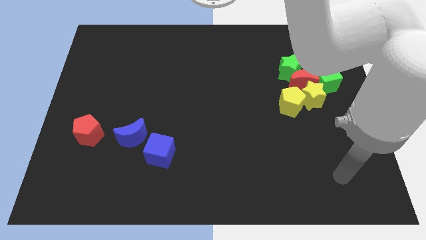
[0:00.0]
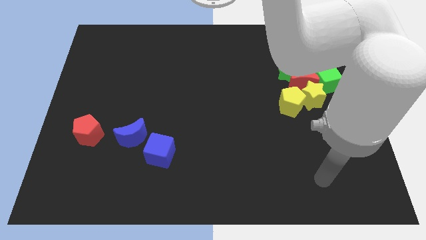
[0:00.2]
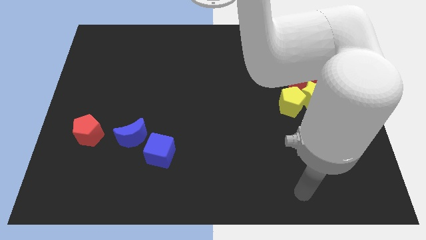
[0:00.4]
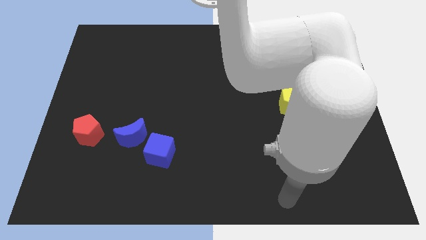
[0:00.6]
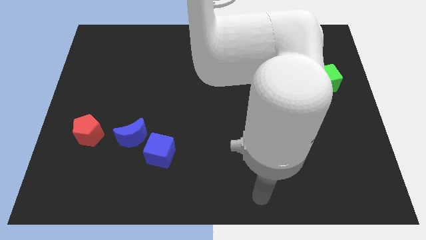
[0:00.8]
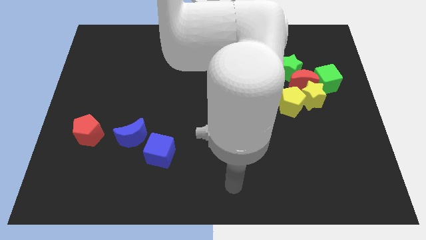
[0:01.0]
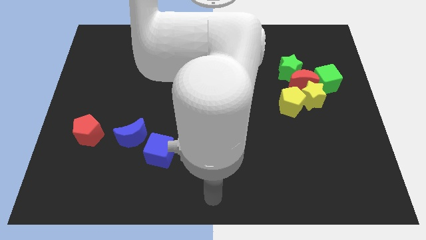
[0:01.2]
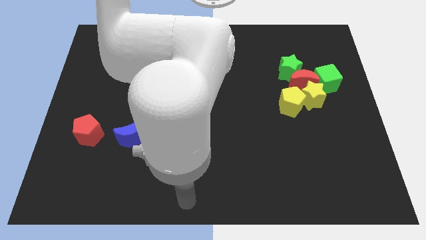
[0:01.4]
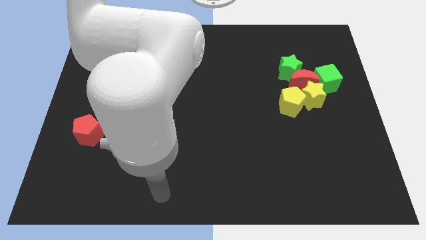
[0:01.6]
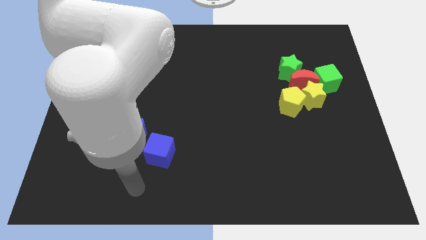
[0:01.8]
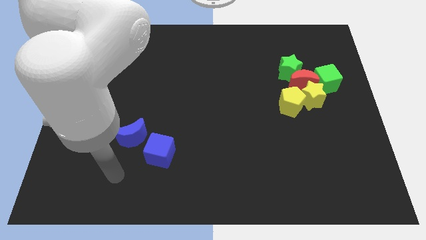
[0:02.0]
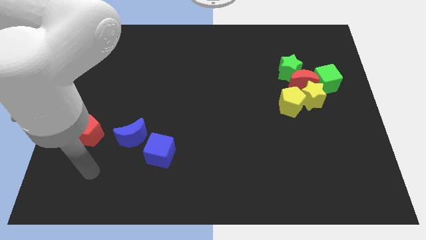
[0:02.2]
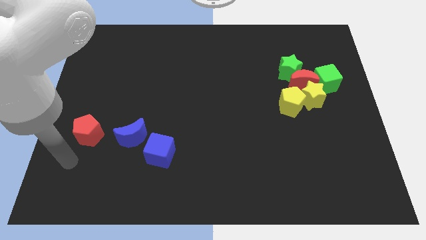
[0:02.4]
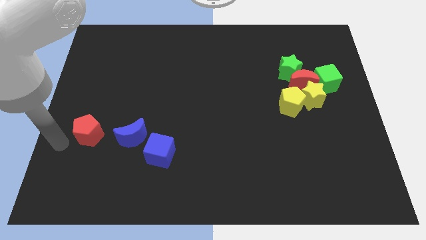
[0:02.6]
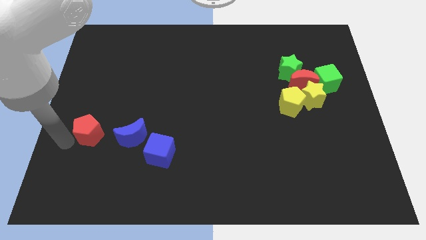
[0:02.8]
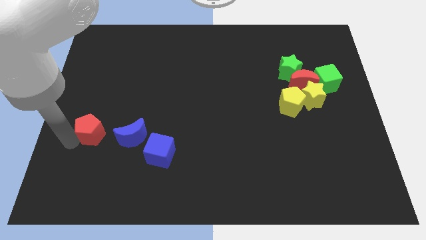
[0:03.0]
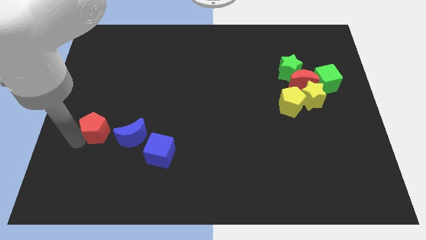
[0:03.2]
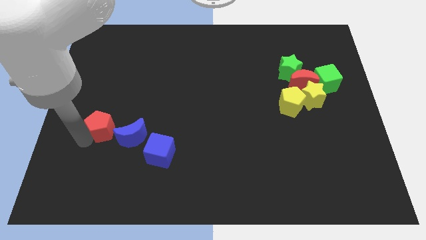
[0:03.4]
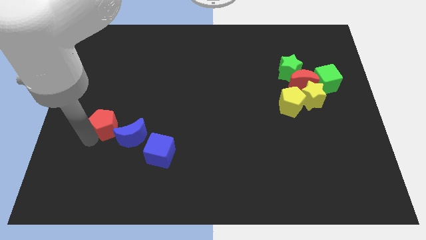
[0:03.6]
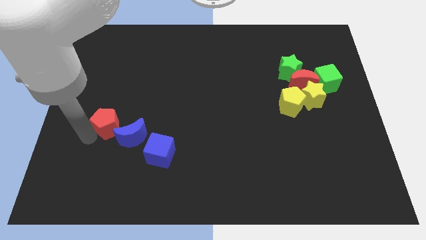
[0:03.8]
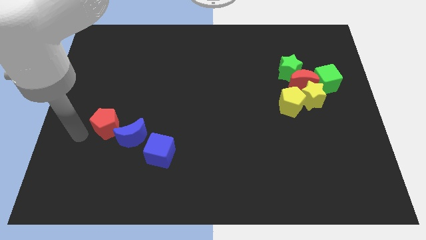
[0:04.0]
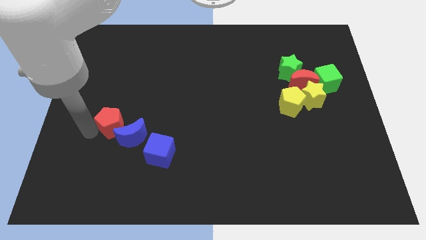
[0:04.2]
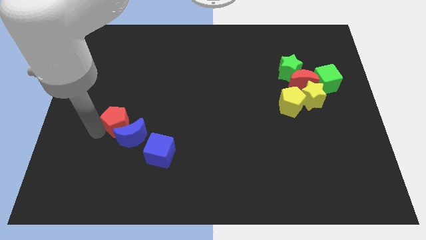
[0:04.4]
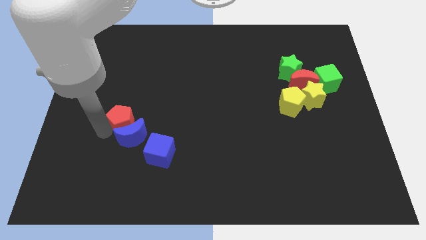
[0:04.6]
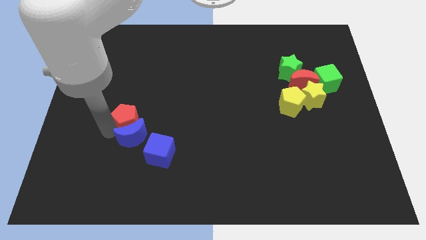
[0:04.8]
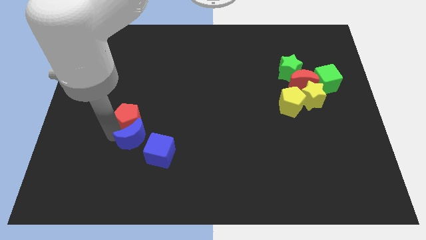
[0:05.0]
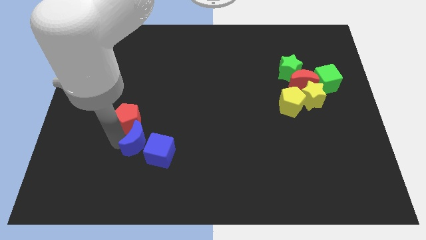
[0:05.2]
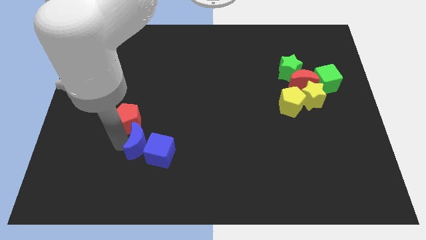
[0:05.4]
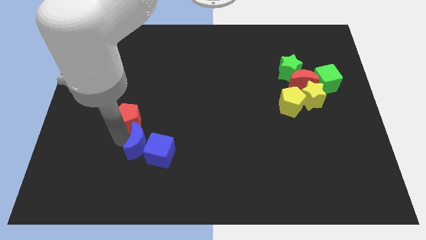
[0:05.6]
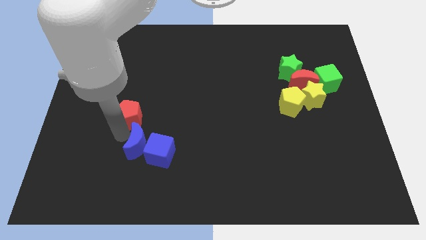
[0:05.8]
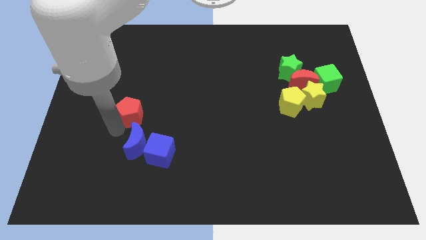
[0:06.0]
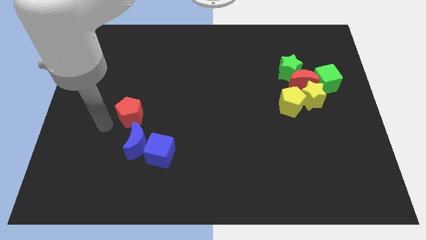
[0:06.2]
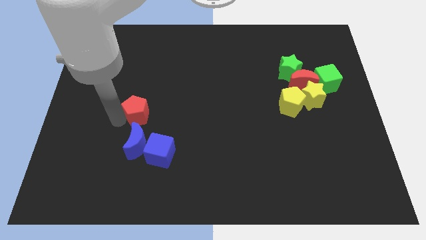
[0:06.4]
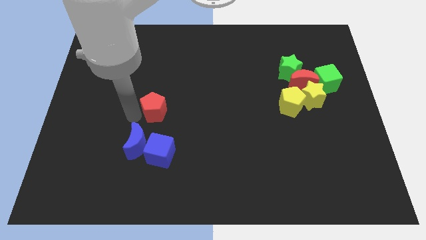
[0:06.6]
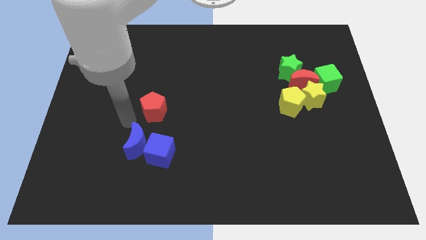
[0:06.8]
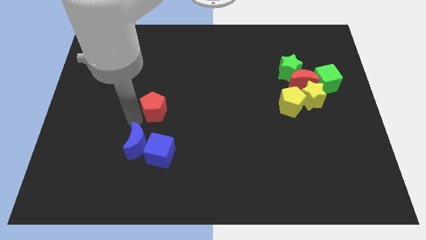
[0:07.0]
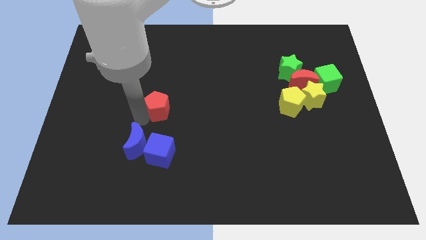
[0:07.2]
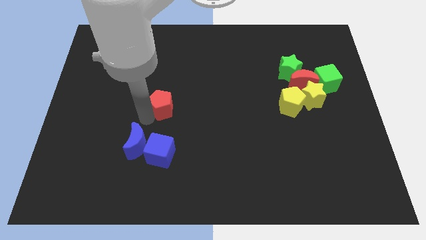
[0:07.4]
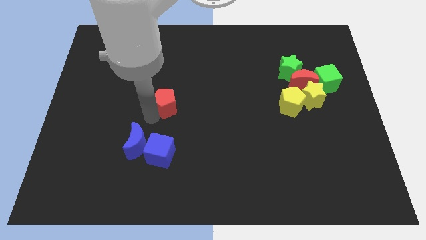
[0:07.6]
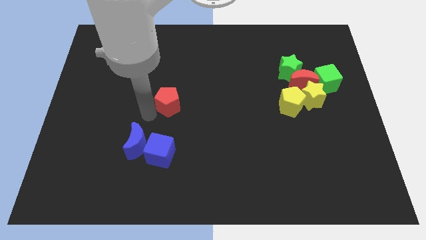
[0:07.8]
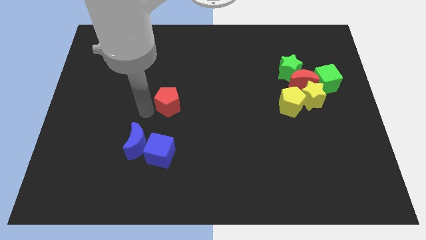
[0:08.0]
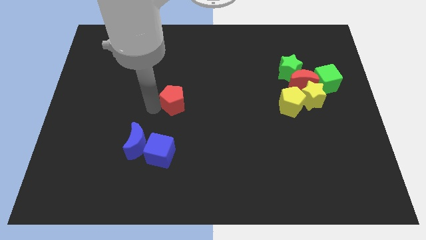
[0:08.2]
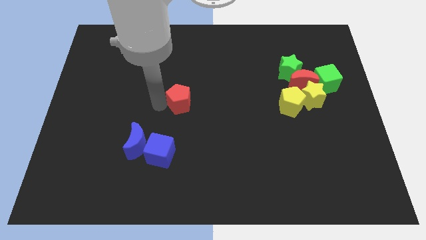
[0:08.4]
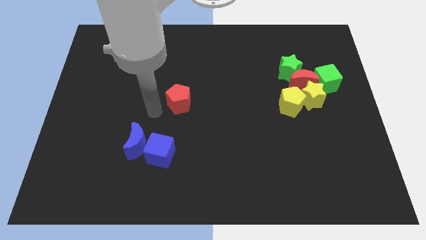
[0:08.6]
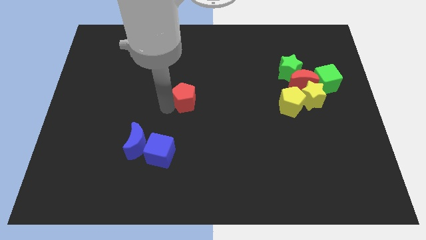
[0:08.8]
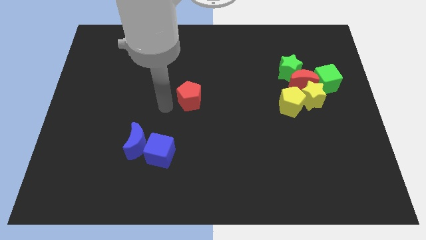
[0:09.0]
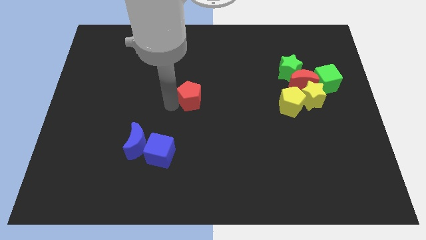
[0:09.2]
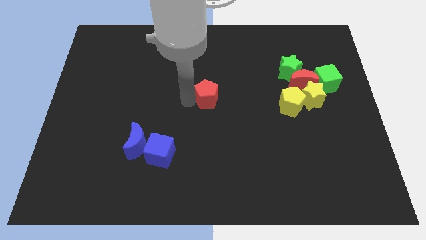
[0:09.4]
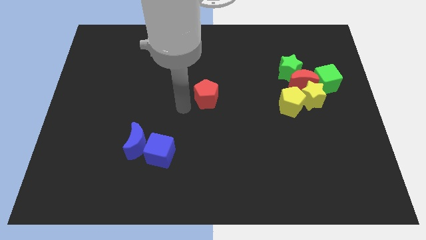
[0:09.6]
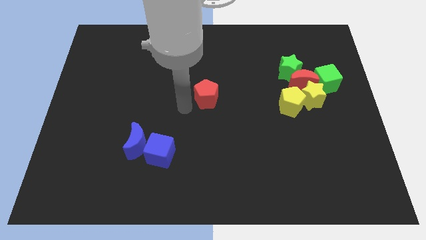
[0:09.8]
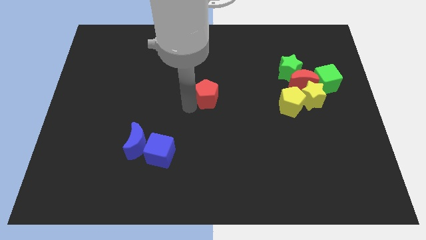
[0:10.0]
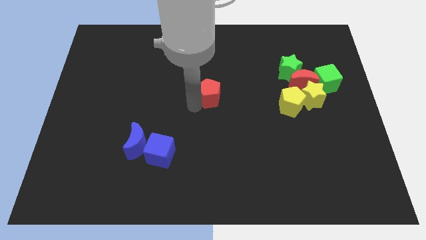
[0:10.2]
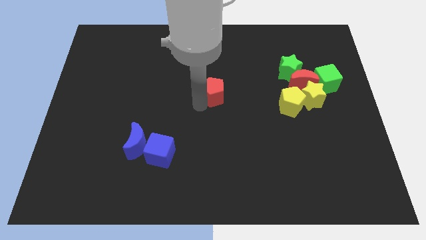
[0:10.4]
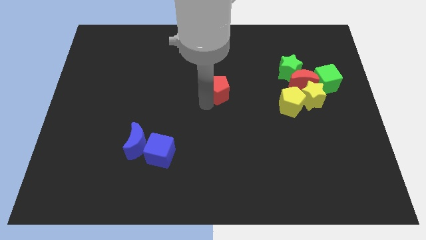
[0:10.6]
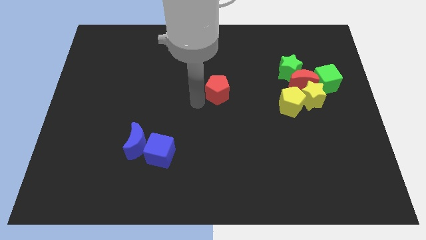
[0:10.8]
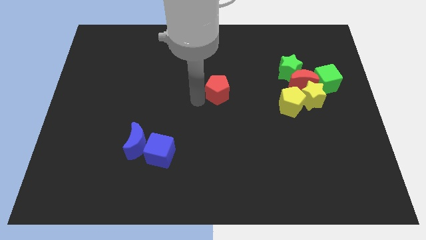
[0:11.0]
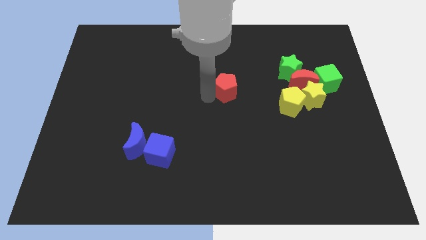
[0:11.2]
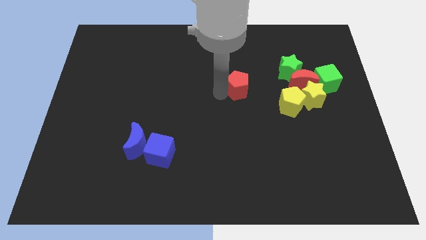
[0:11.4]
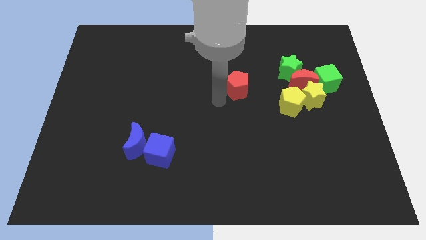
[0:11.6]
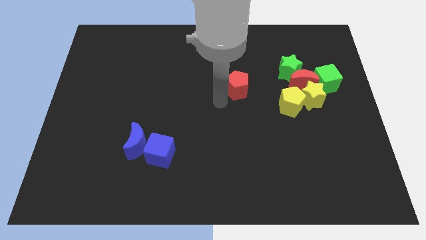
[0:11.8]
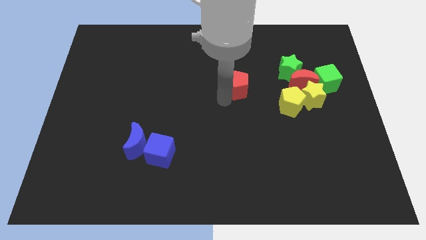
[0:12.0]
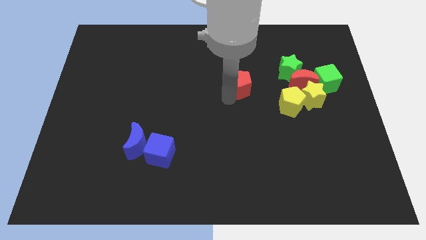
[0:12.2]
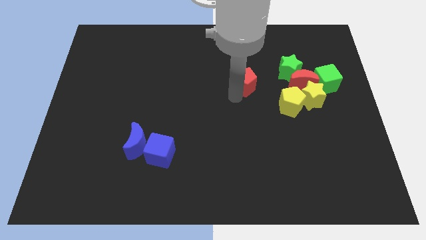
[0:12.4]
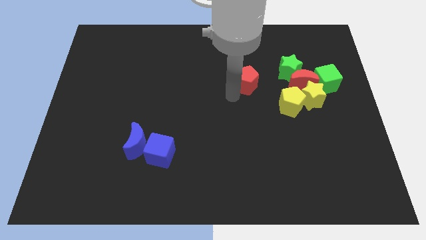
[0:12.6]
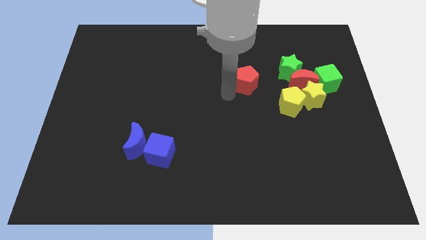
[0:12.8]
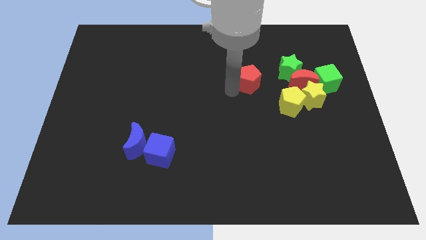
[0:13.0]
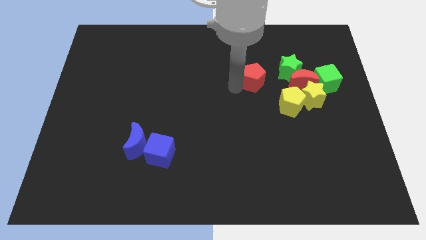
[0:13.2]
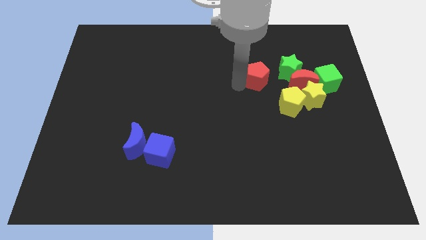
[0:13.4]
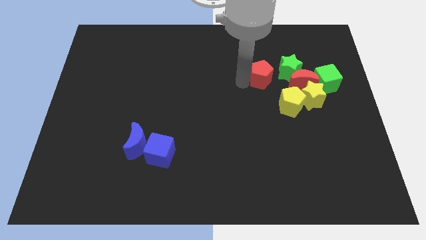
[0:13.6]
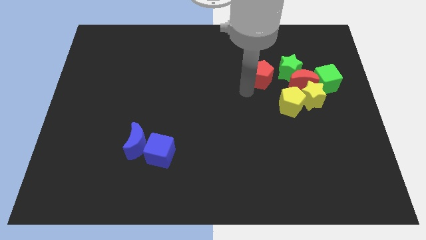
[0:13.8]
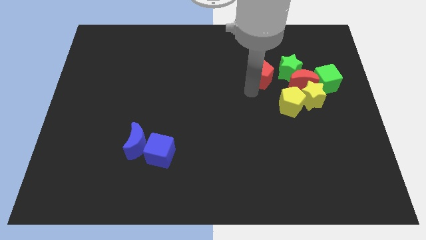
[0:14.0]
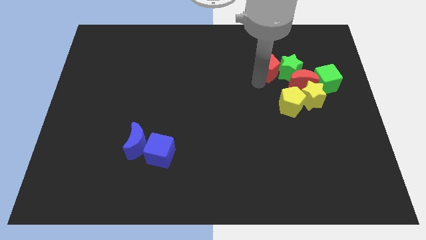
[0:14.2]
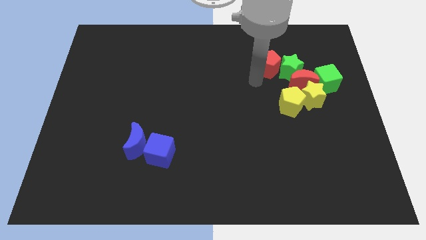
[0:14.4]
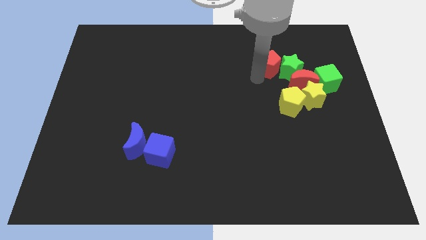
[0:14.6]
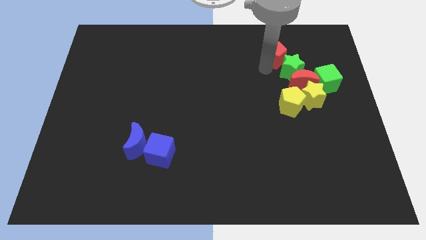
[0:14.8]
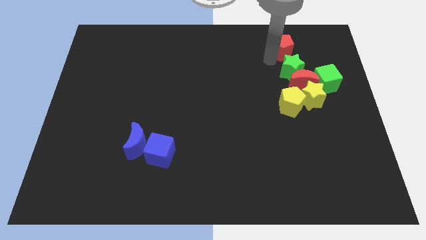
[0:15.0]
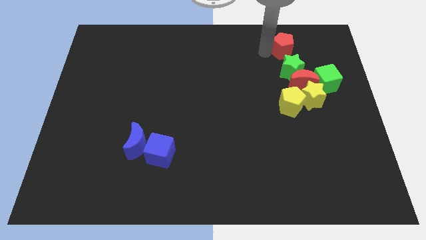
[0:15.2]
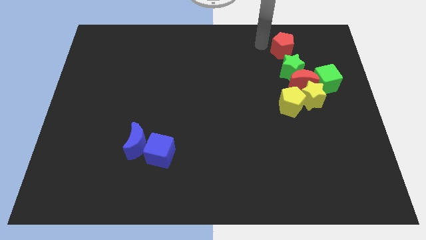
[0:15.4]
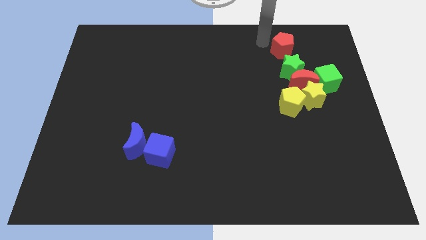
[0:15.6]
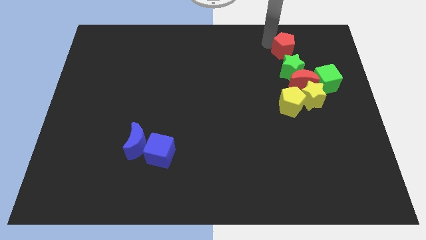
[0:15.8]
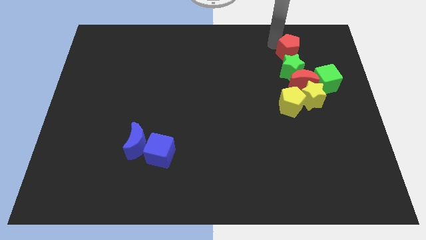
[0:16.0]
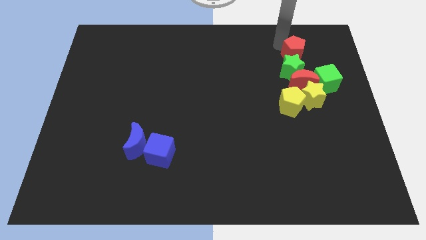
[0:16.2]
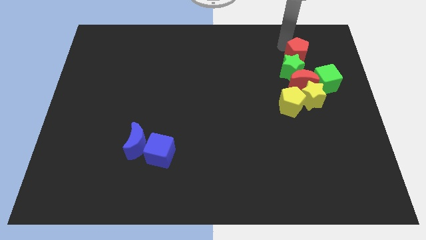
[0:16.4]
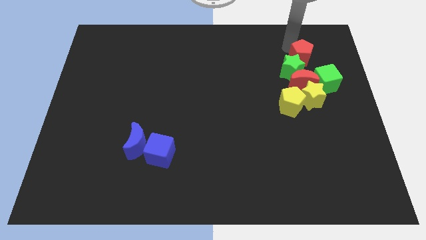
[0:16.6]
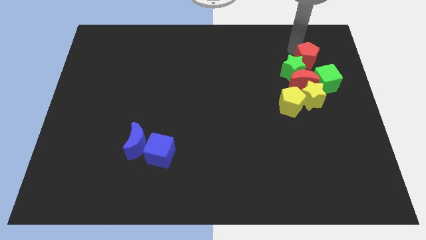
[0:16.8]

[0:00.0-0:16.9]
slide the red pentagon to the top right of the red moon
